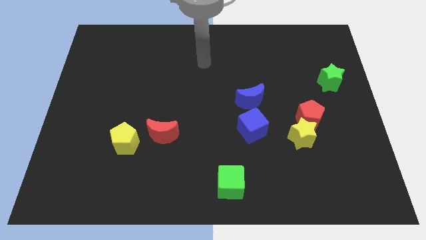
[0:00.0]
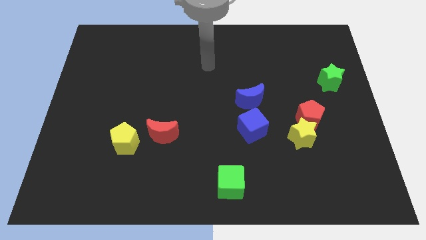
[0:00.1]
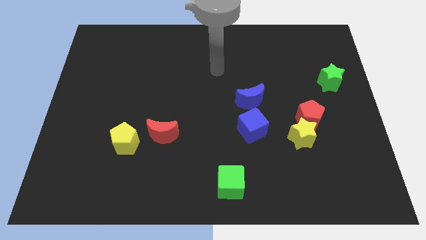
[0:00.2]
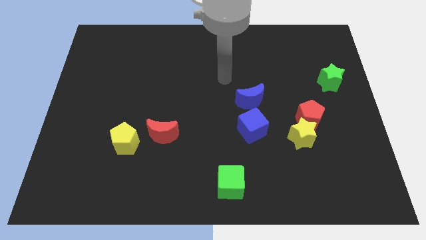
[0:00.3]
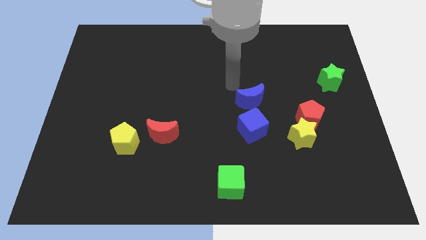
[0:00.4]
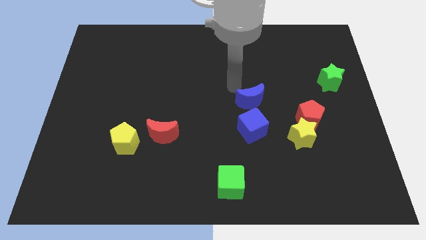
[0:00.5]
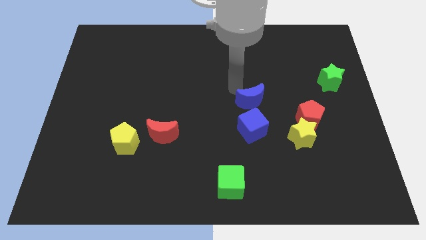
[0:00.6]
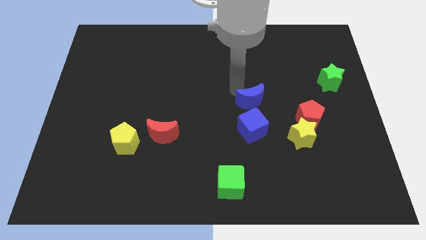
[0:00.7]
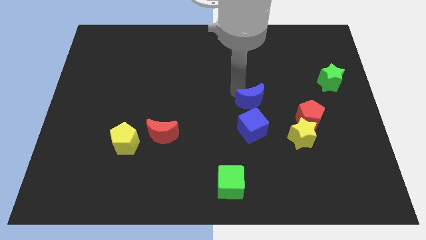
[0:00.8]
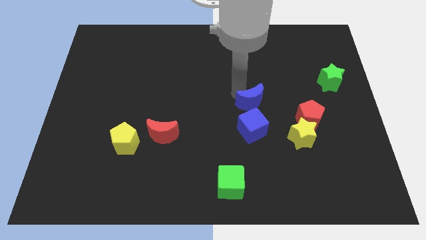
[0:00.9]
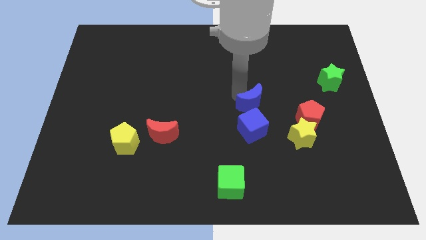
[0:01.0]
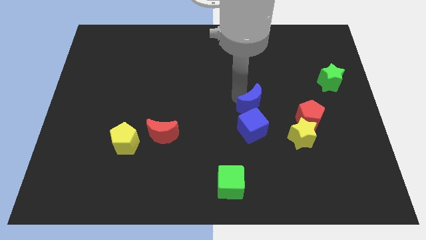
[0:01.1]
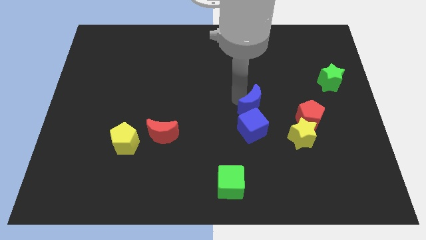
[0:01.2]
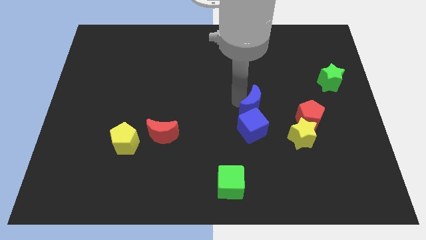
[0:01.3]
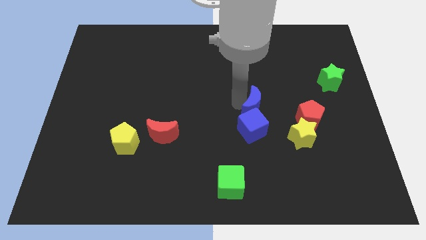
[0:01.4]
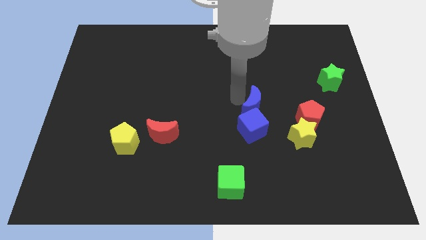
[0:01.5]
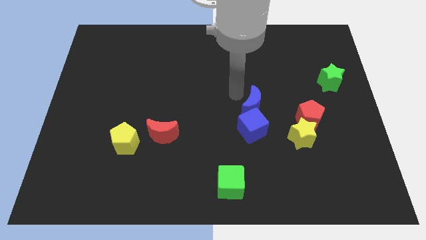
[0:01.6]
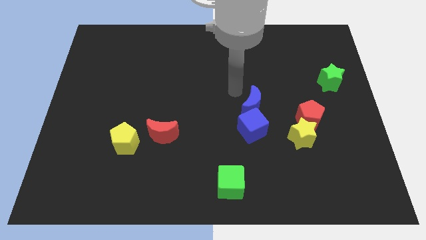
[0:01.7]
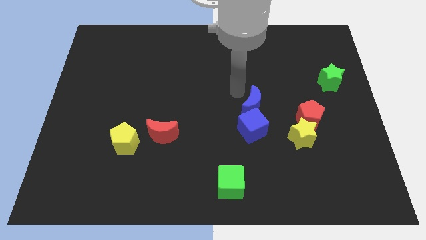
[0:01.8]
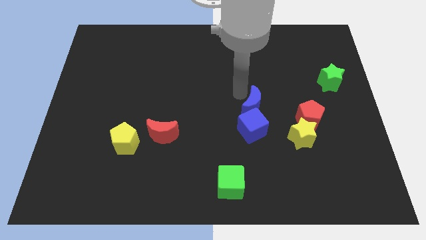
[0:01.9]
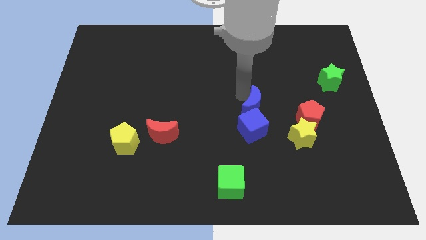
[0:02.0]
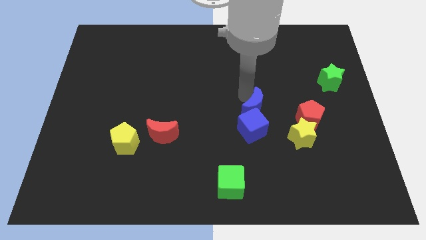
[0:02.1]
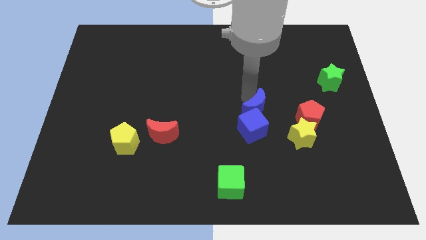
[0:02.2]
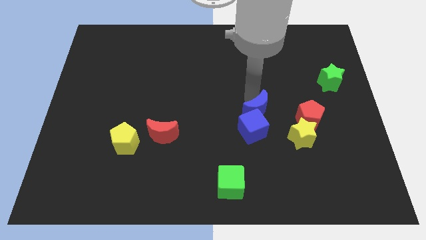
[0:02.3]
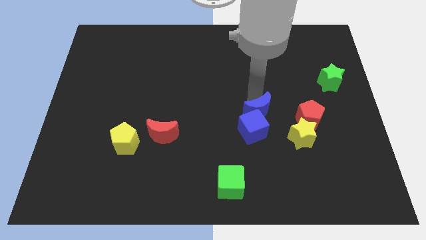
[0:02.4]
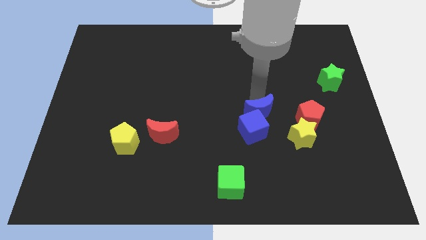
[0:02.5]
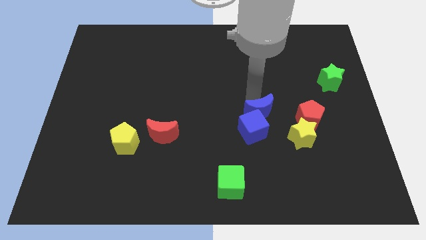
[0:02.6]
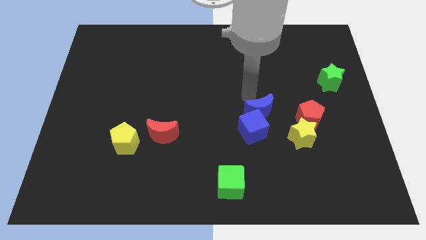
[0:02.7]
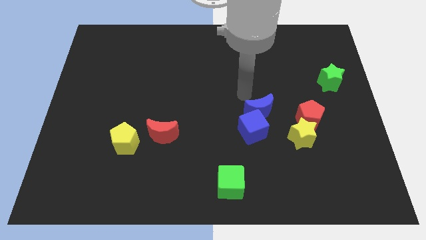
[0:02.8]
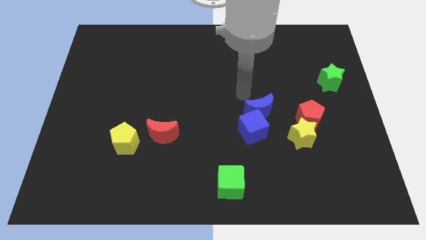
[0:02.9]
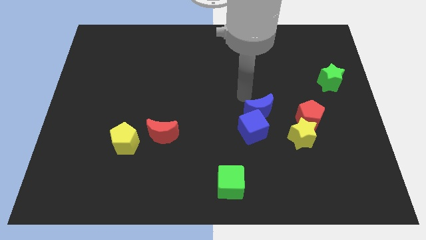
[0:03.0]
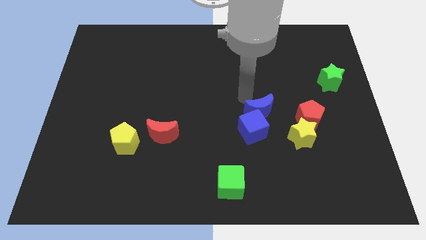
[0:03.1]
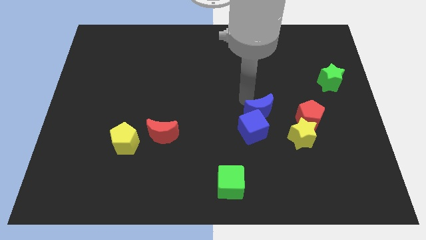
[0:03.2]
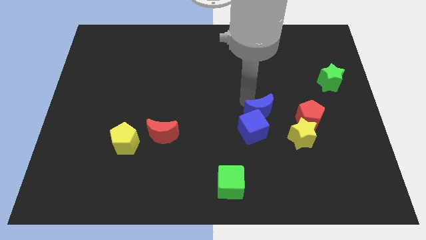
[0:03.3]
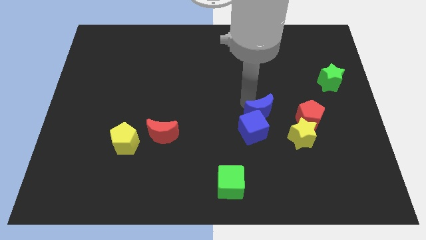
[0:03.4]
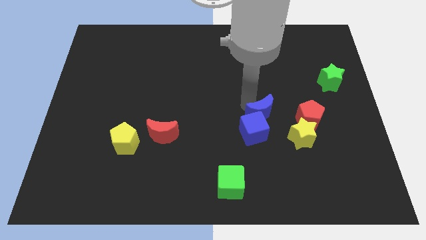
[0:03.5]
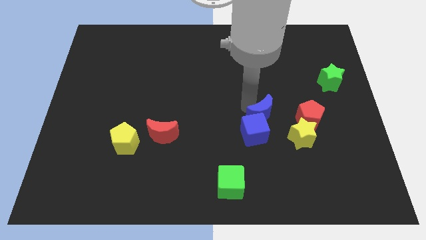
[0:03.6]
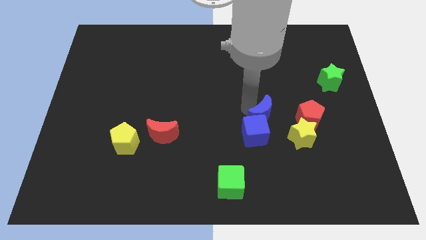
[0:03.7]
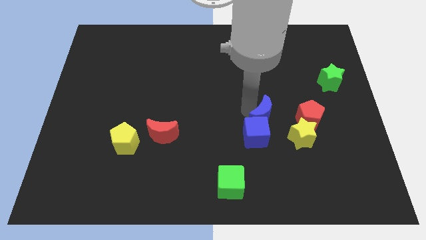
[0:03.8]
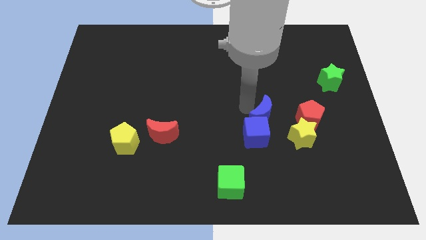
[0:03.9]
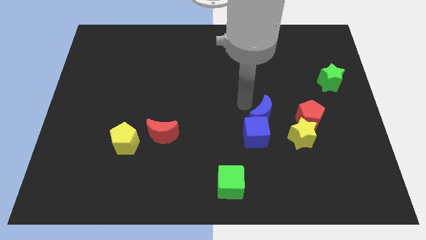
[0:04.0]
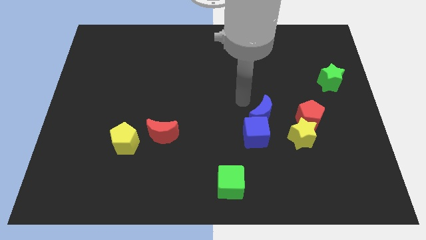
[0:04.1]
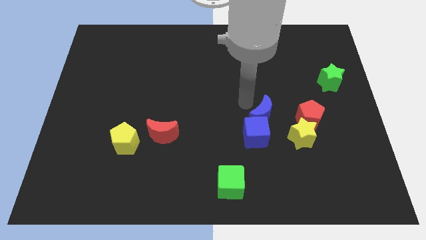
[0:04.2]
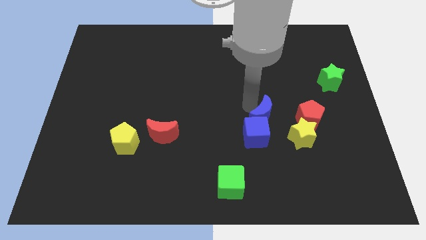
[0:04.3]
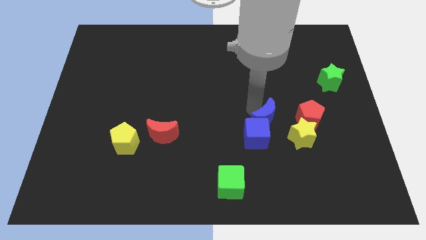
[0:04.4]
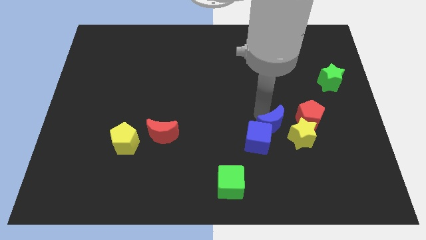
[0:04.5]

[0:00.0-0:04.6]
slightly push the blue moon downwards and to the right diagonally

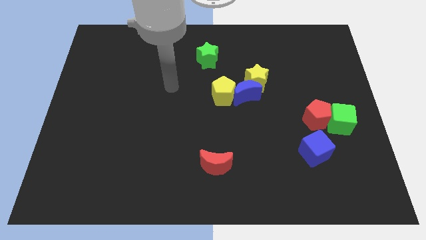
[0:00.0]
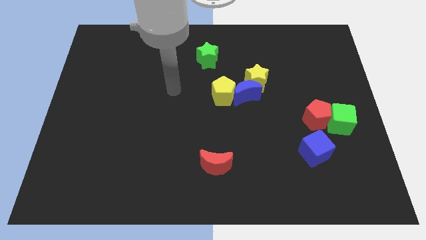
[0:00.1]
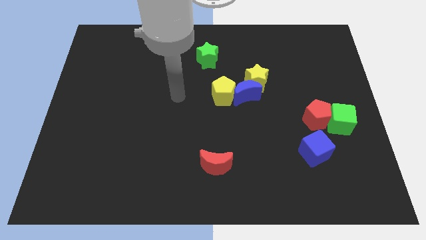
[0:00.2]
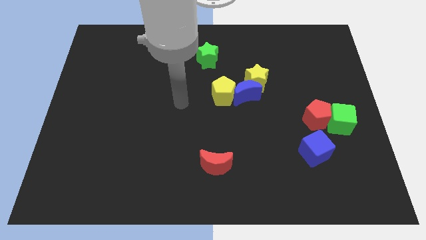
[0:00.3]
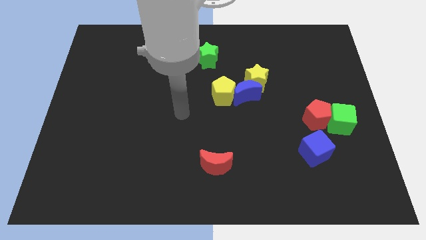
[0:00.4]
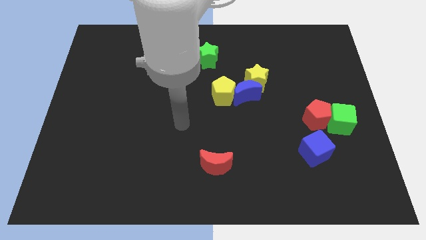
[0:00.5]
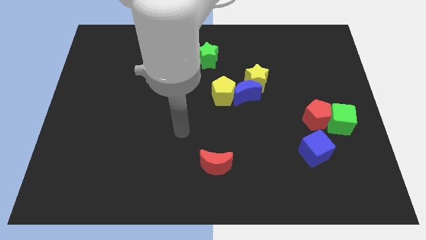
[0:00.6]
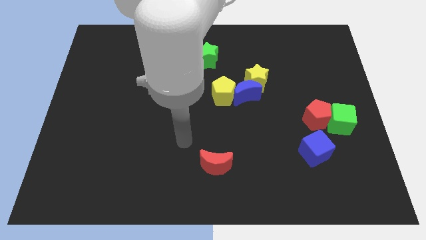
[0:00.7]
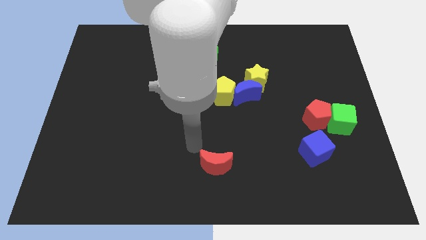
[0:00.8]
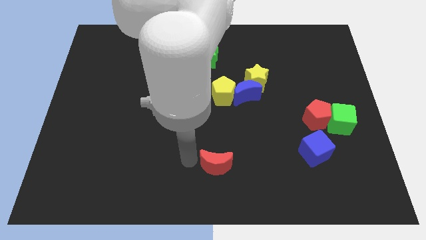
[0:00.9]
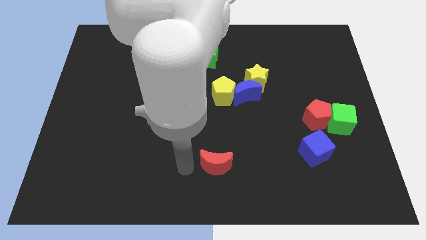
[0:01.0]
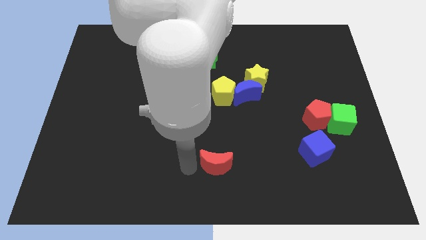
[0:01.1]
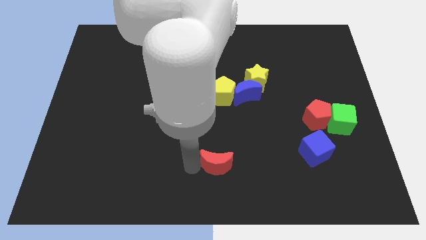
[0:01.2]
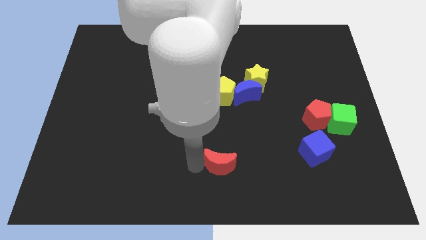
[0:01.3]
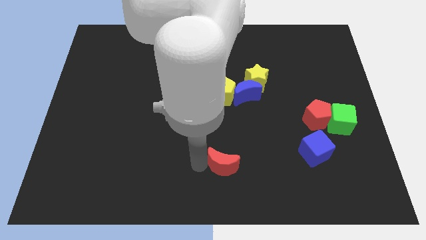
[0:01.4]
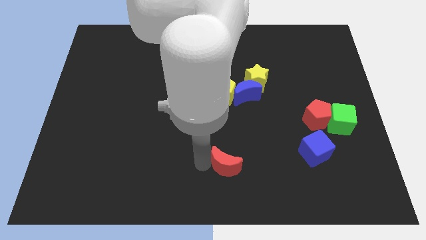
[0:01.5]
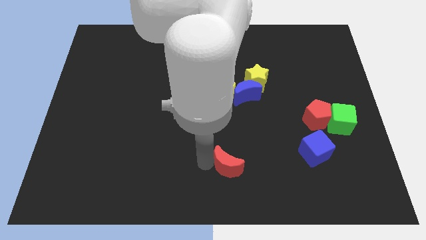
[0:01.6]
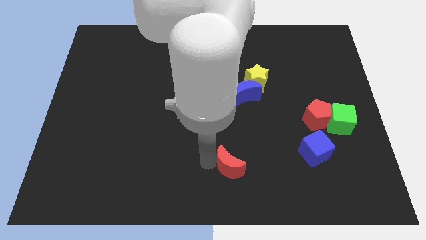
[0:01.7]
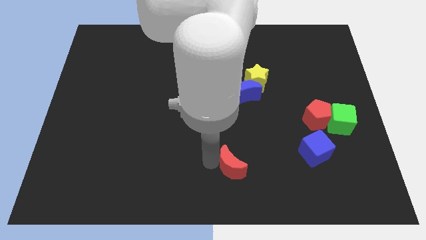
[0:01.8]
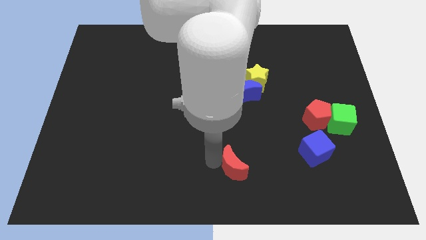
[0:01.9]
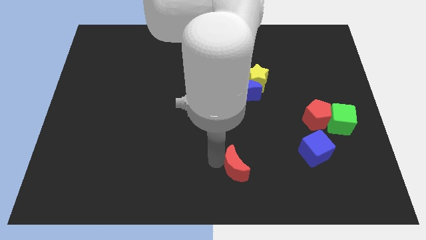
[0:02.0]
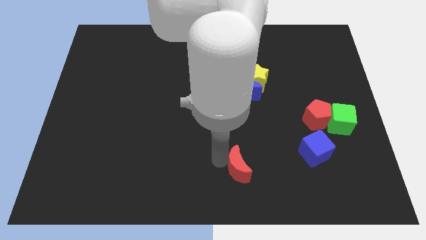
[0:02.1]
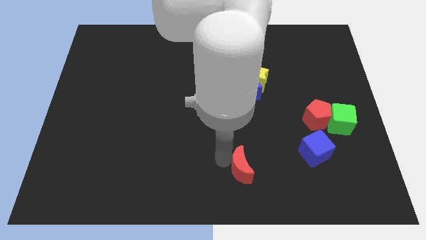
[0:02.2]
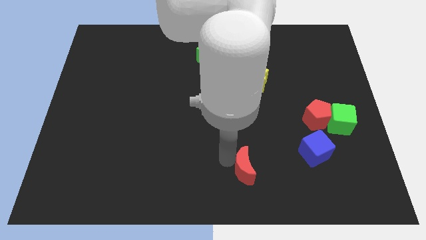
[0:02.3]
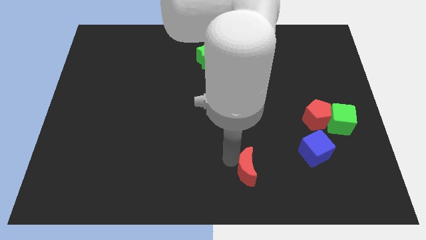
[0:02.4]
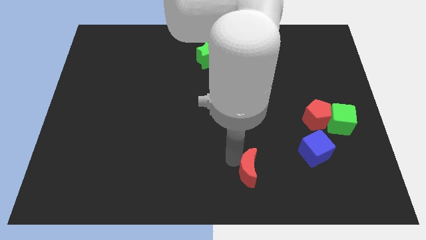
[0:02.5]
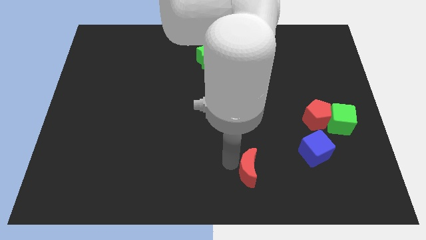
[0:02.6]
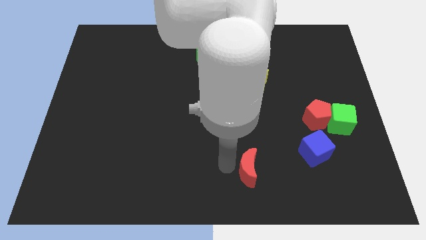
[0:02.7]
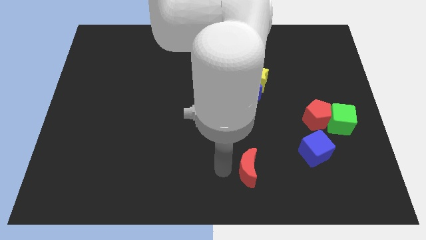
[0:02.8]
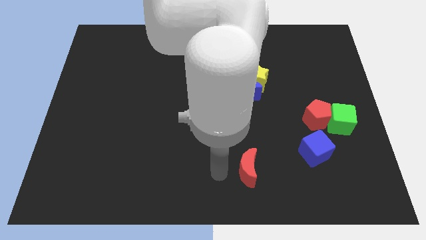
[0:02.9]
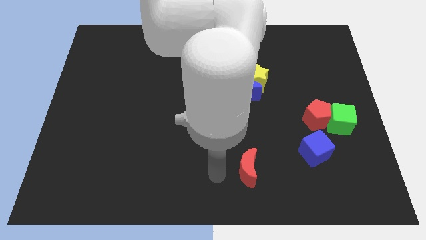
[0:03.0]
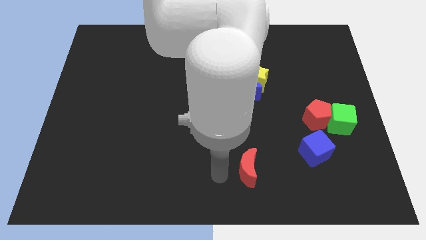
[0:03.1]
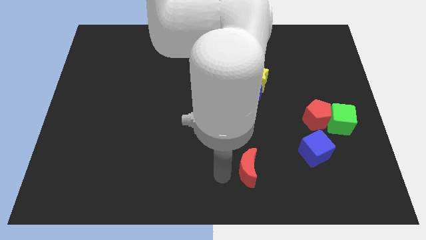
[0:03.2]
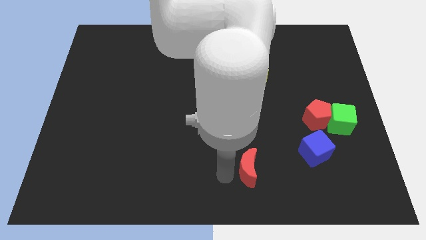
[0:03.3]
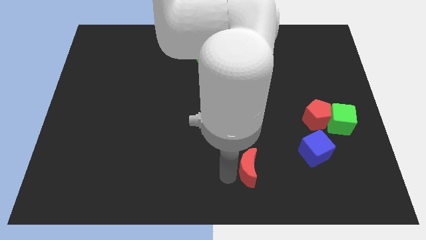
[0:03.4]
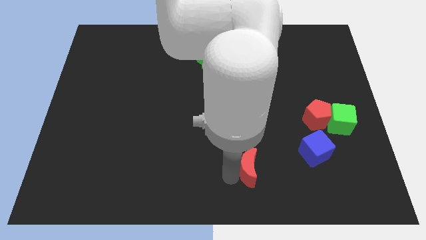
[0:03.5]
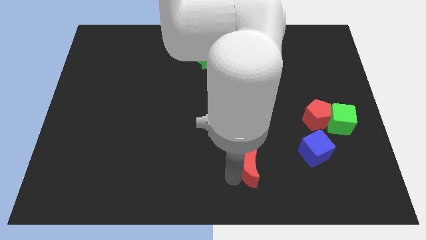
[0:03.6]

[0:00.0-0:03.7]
push the red moon slightly right
